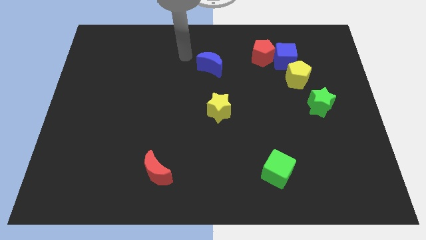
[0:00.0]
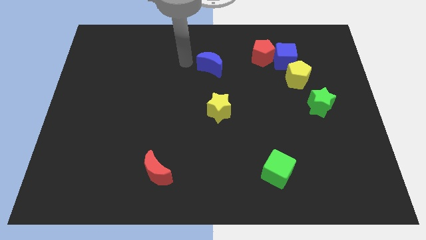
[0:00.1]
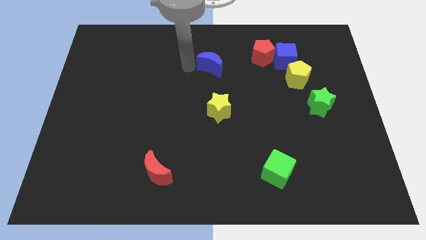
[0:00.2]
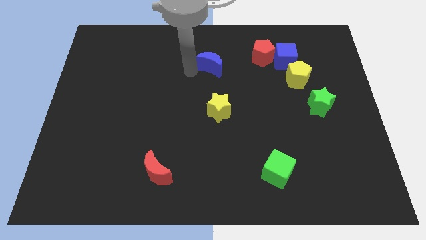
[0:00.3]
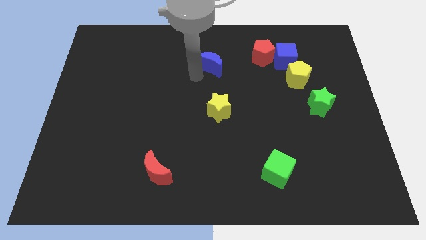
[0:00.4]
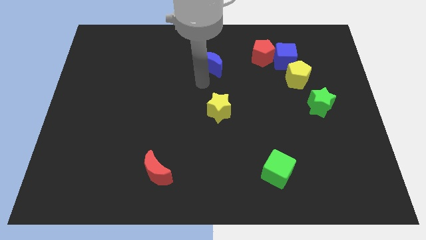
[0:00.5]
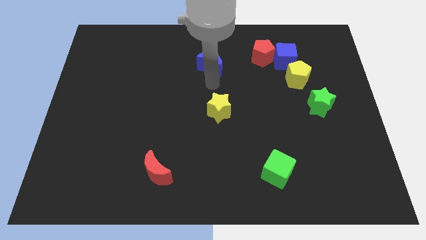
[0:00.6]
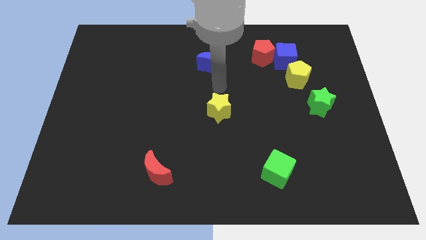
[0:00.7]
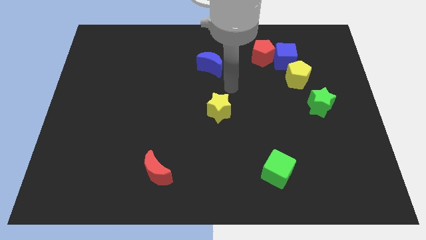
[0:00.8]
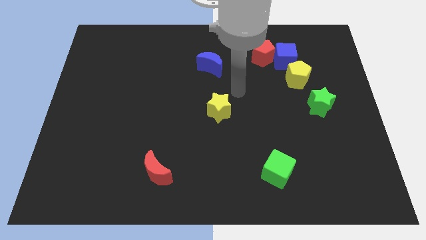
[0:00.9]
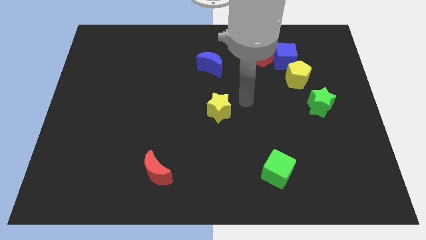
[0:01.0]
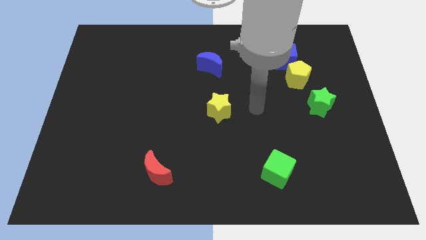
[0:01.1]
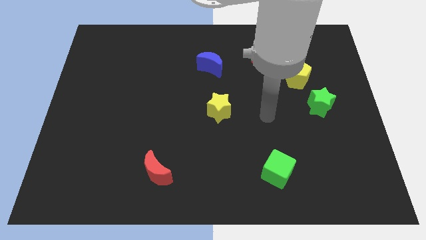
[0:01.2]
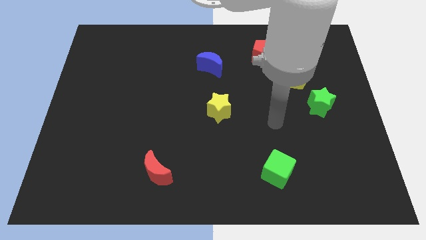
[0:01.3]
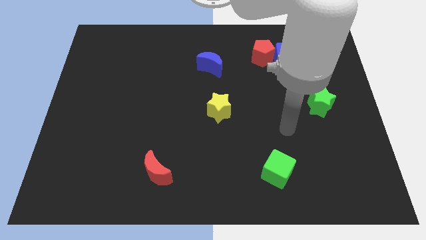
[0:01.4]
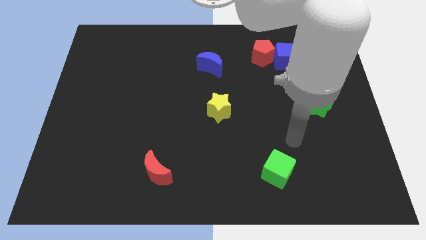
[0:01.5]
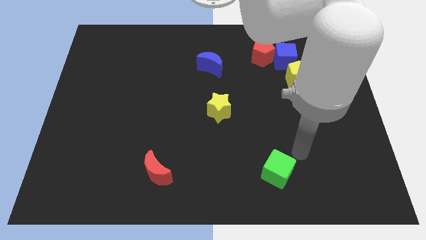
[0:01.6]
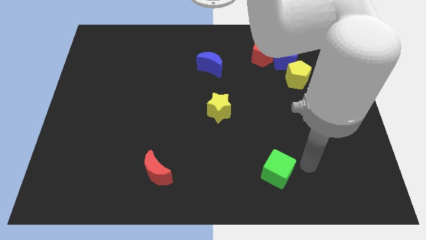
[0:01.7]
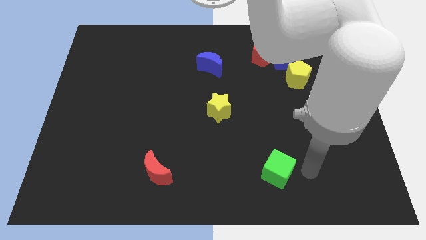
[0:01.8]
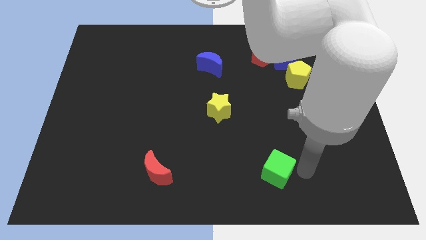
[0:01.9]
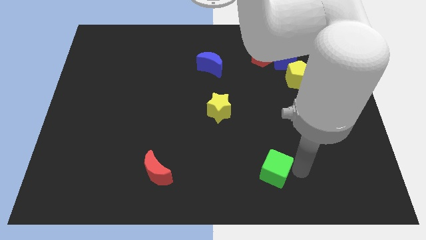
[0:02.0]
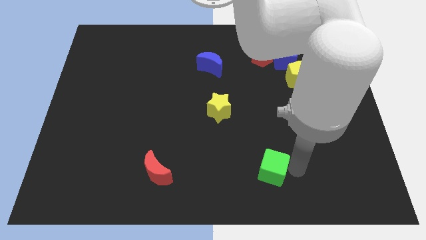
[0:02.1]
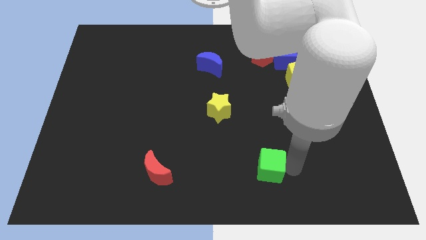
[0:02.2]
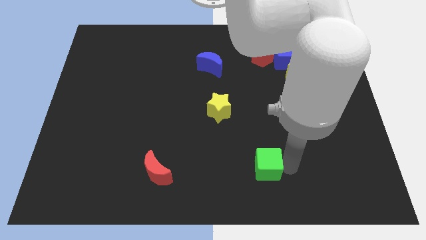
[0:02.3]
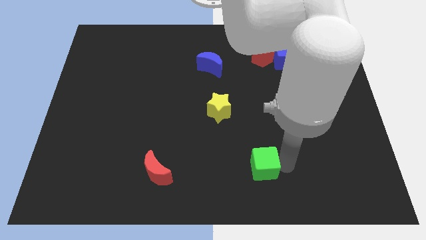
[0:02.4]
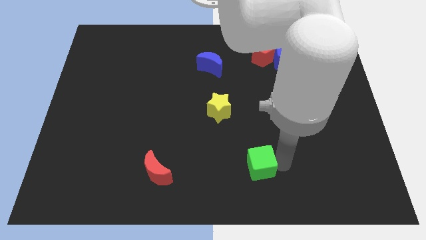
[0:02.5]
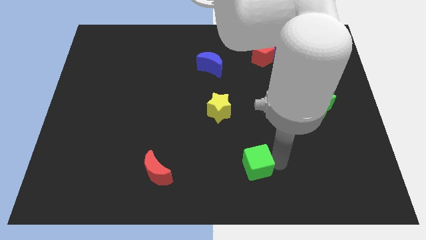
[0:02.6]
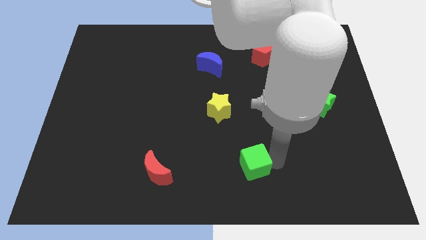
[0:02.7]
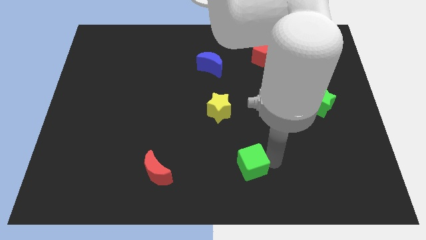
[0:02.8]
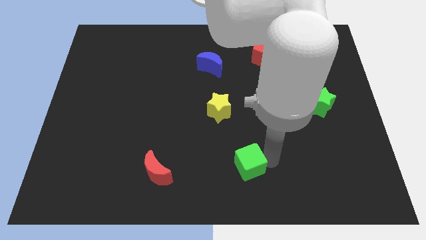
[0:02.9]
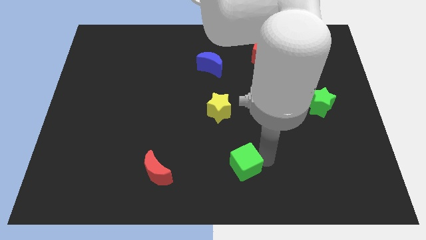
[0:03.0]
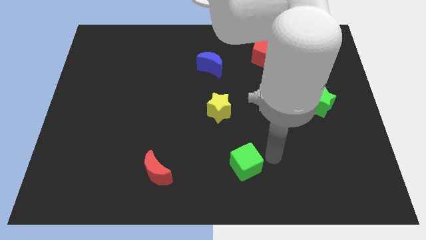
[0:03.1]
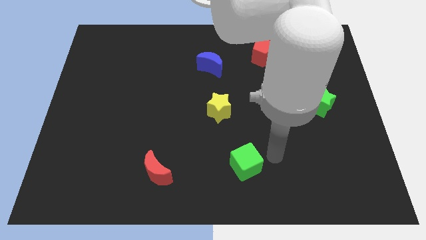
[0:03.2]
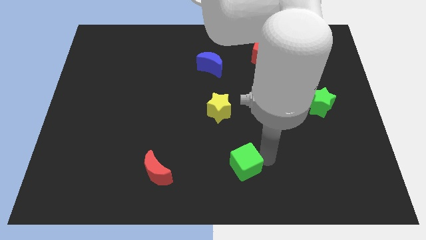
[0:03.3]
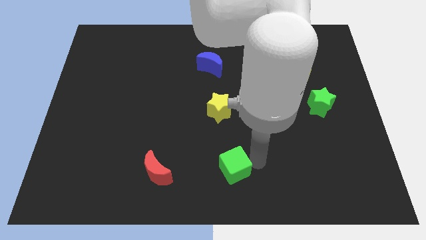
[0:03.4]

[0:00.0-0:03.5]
slide the green cube to the left a little bit

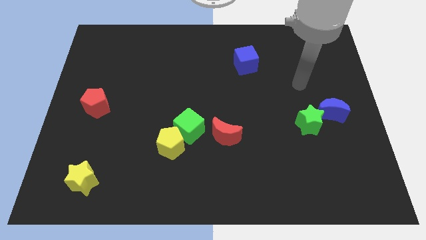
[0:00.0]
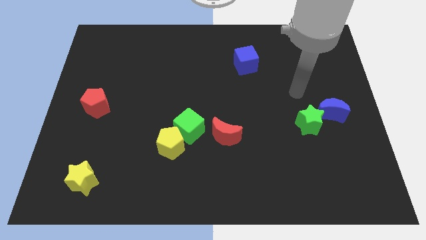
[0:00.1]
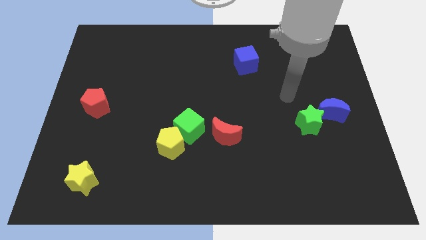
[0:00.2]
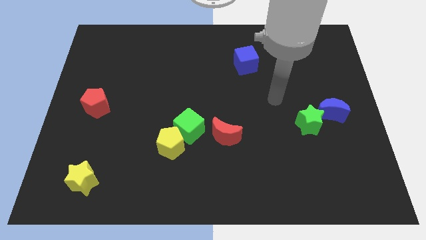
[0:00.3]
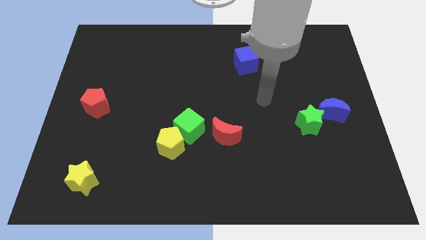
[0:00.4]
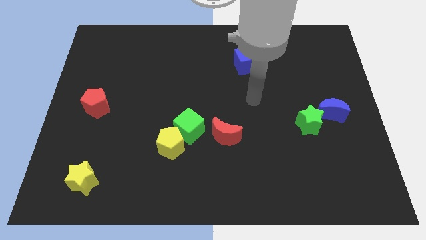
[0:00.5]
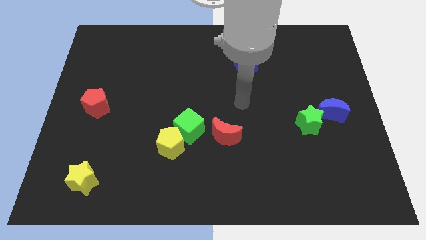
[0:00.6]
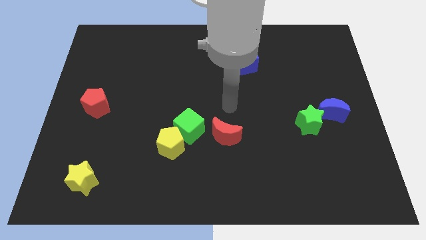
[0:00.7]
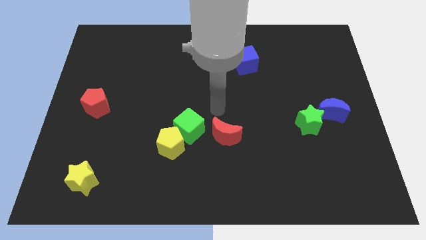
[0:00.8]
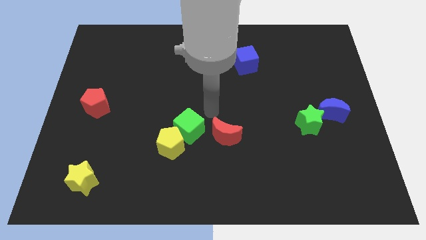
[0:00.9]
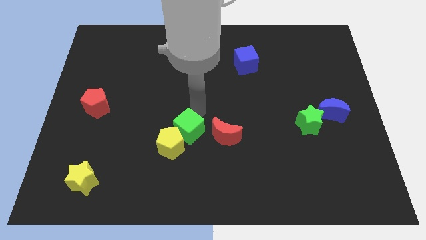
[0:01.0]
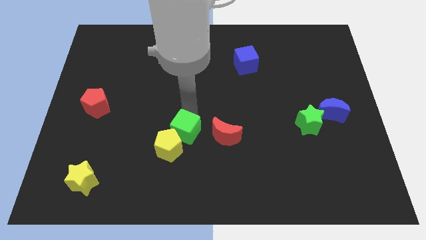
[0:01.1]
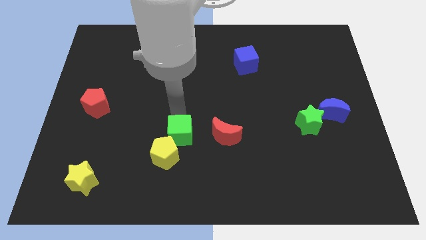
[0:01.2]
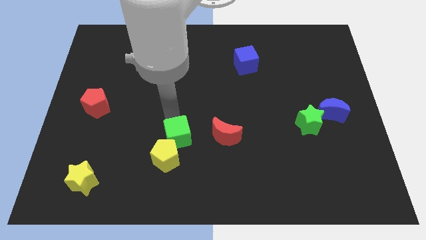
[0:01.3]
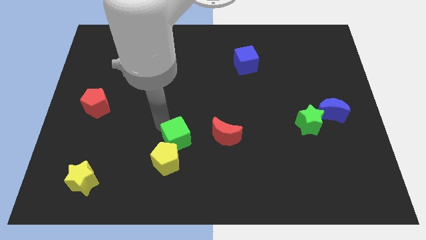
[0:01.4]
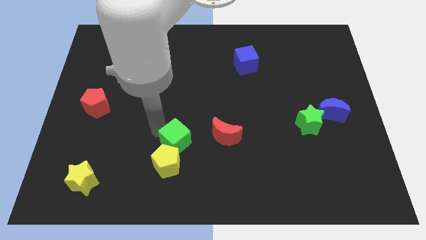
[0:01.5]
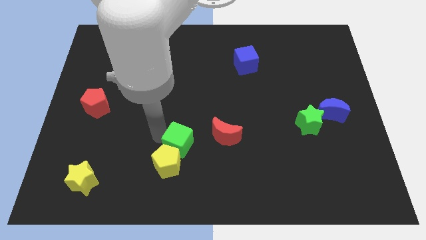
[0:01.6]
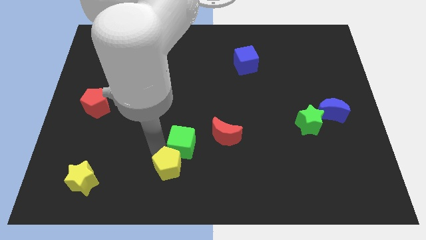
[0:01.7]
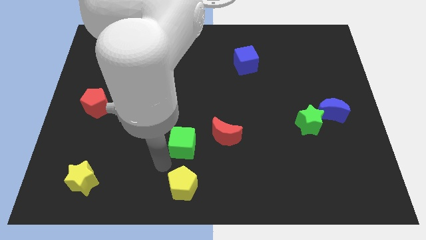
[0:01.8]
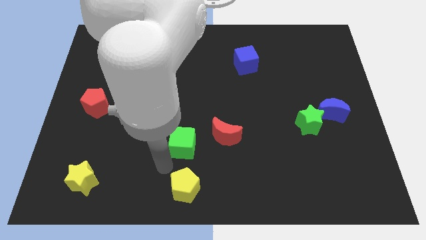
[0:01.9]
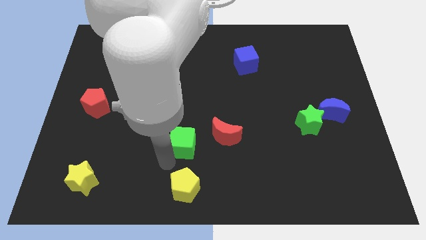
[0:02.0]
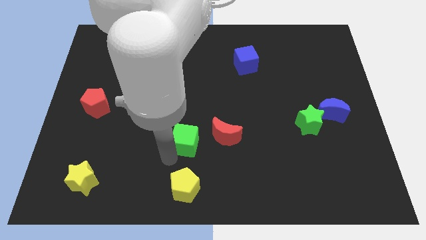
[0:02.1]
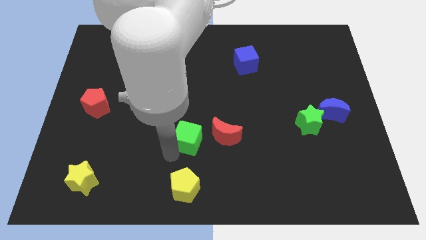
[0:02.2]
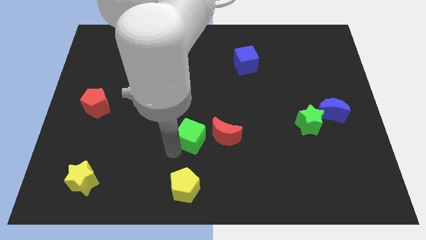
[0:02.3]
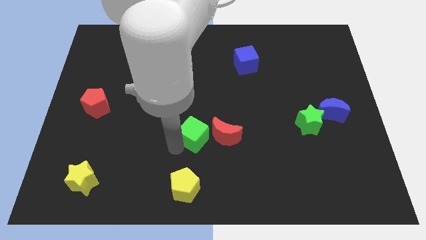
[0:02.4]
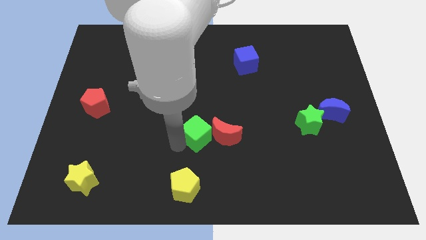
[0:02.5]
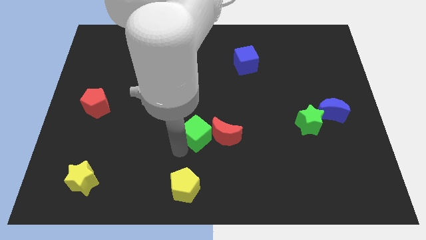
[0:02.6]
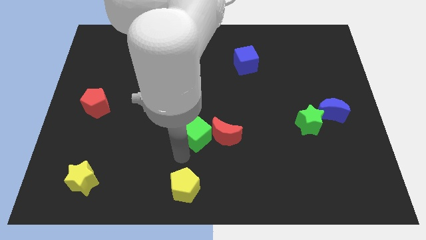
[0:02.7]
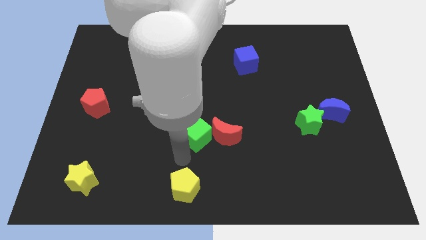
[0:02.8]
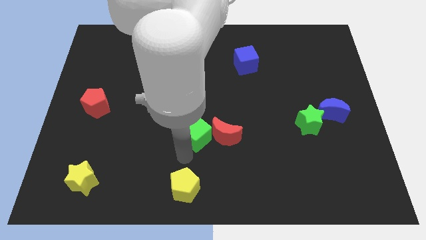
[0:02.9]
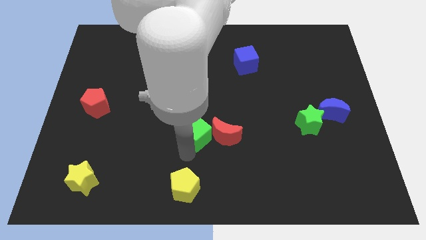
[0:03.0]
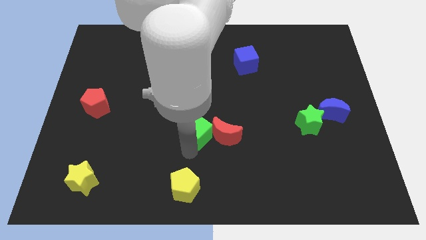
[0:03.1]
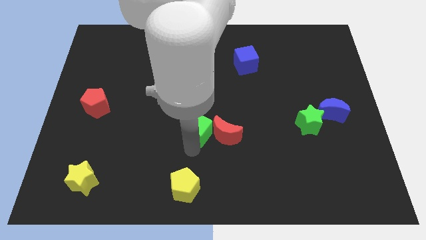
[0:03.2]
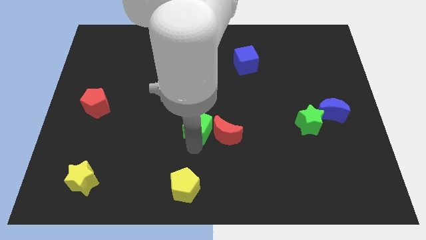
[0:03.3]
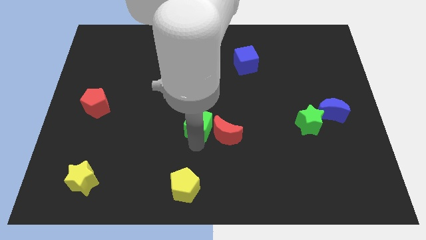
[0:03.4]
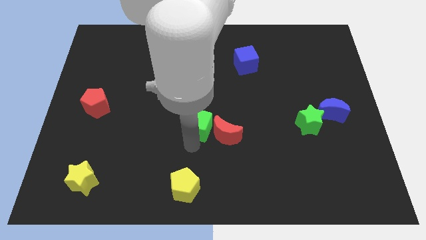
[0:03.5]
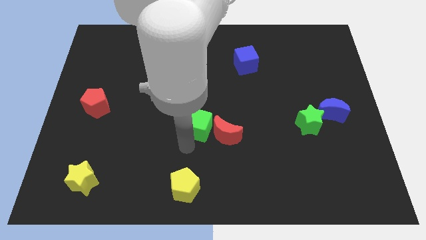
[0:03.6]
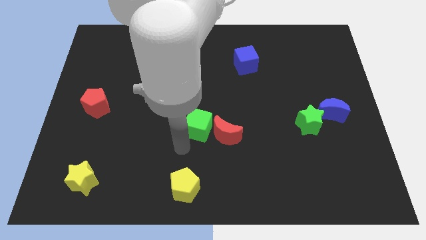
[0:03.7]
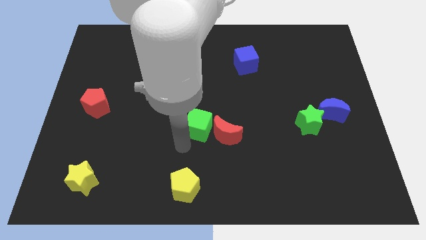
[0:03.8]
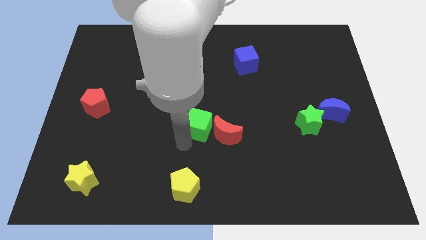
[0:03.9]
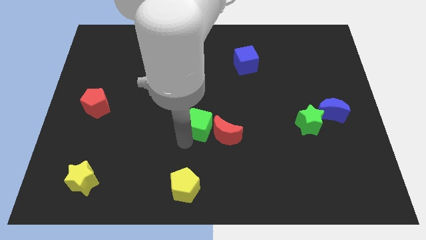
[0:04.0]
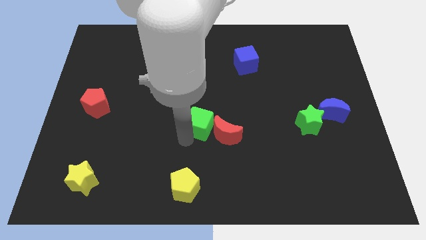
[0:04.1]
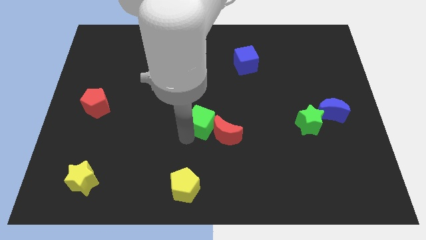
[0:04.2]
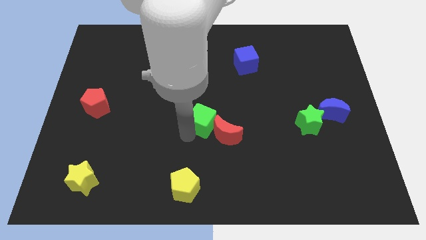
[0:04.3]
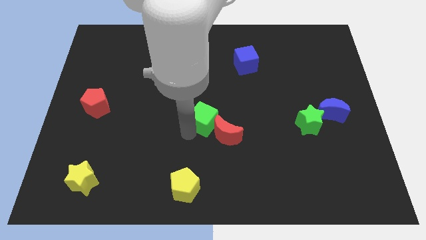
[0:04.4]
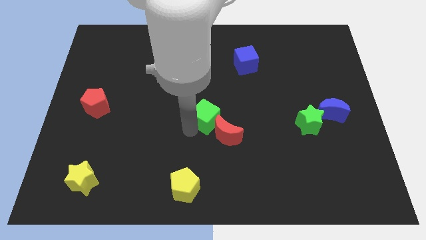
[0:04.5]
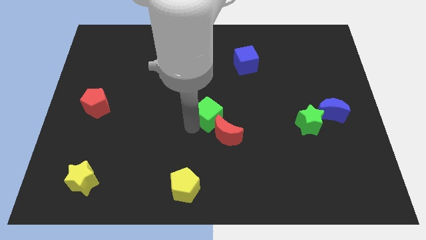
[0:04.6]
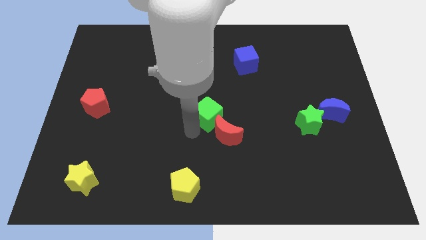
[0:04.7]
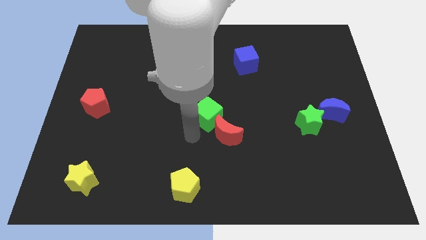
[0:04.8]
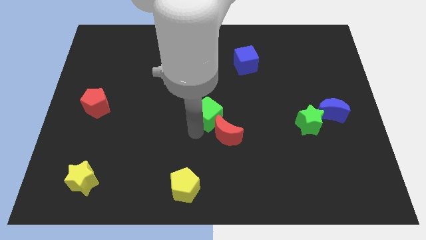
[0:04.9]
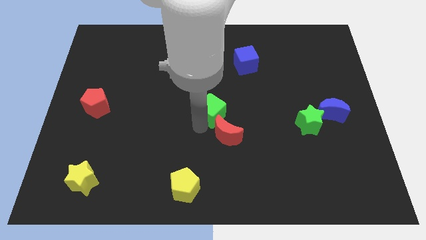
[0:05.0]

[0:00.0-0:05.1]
slide the green cube upwards and then to the right a little
